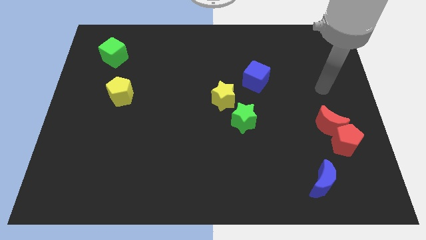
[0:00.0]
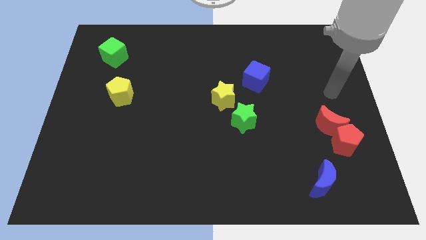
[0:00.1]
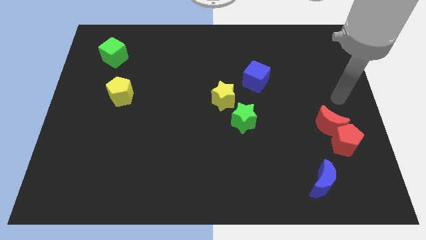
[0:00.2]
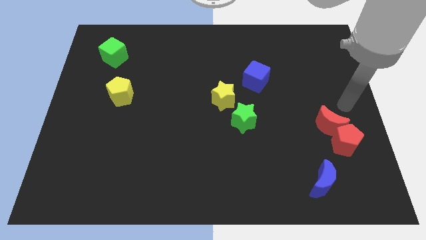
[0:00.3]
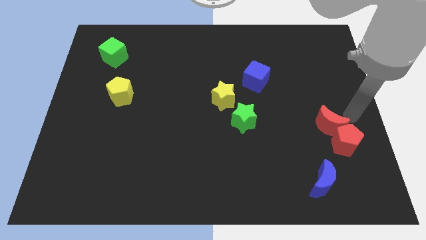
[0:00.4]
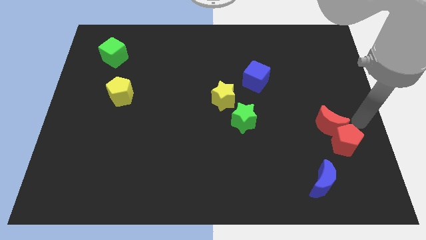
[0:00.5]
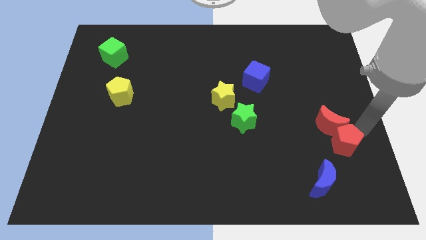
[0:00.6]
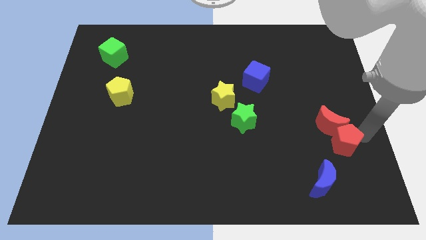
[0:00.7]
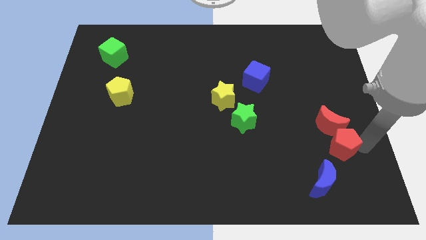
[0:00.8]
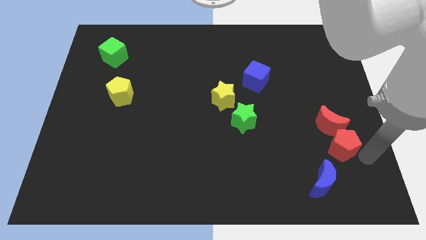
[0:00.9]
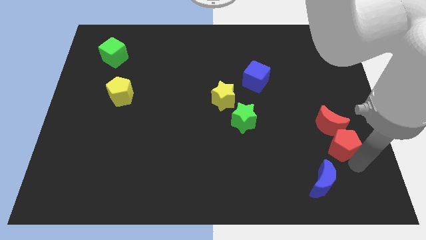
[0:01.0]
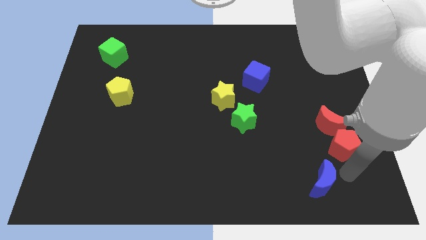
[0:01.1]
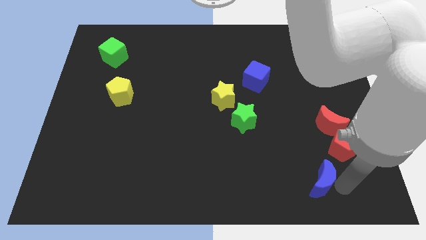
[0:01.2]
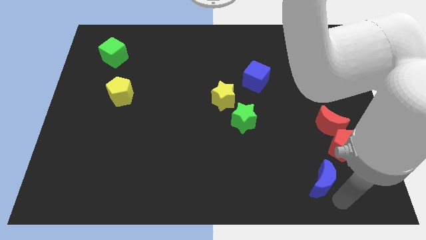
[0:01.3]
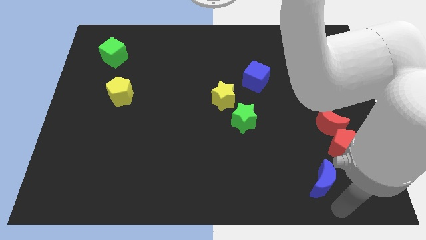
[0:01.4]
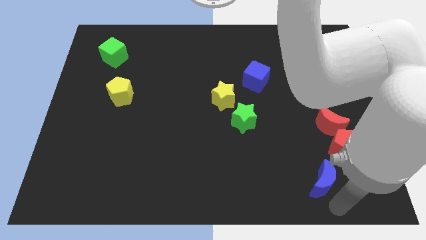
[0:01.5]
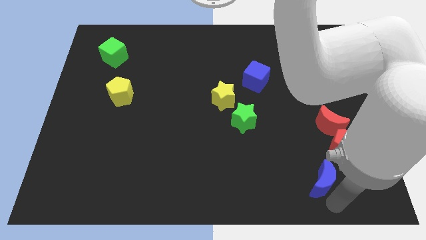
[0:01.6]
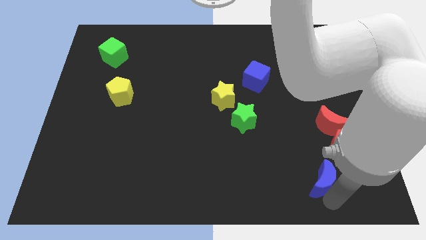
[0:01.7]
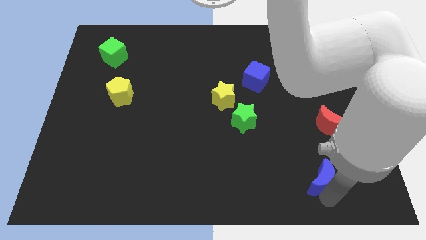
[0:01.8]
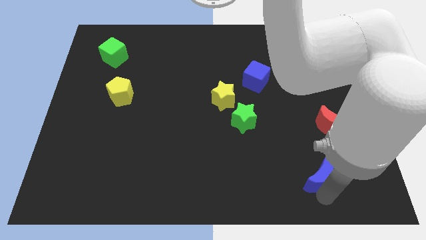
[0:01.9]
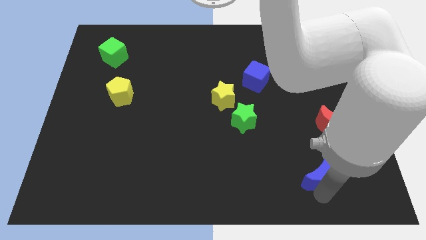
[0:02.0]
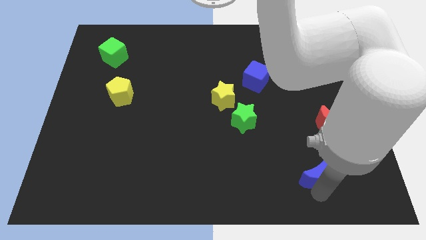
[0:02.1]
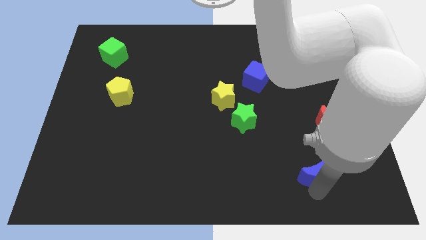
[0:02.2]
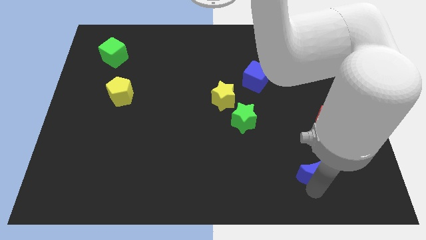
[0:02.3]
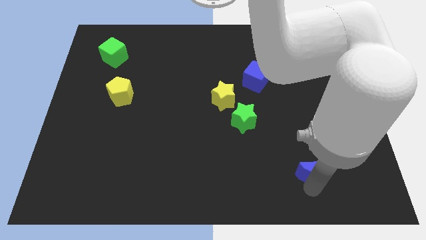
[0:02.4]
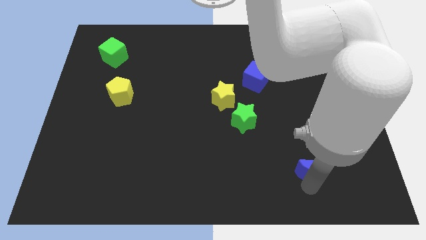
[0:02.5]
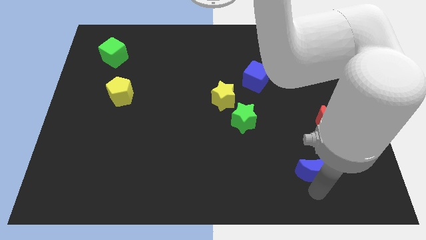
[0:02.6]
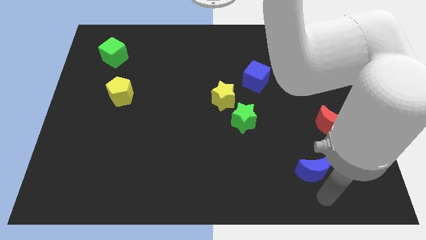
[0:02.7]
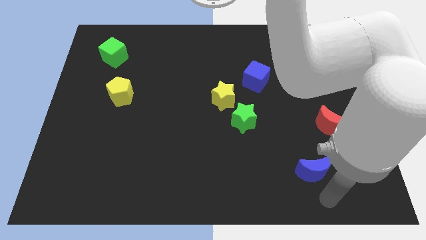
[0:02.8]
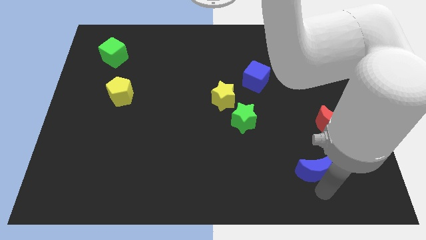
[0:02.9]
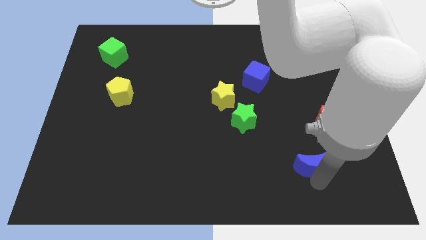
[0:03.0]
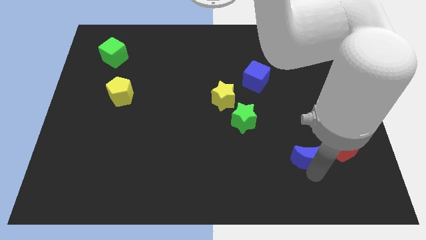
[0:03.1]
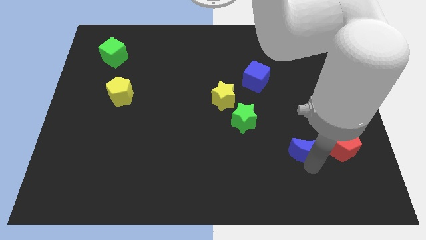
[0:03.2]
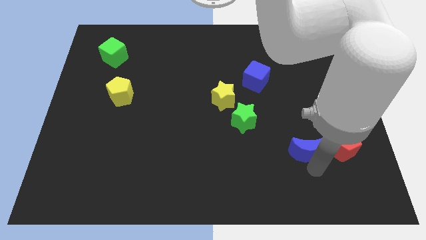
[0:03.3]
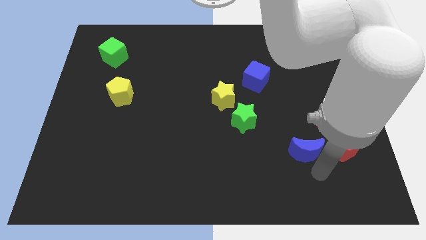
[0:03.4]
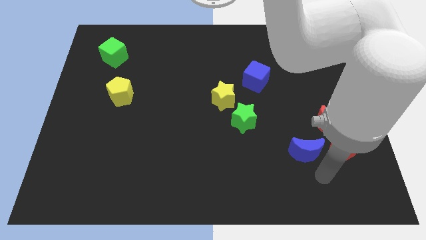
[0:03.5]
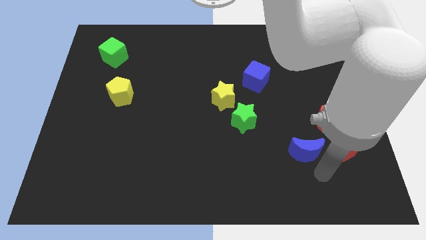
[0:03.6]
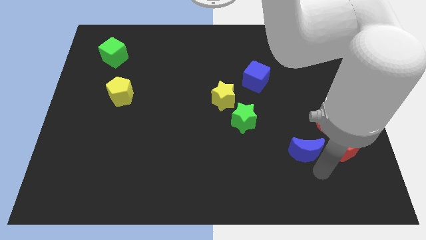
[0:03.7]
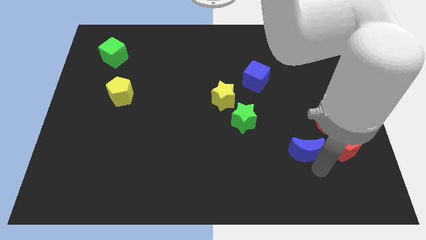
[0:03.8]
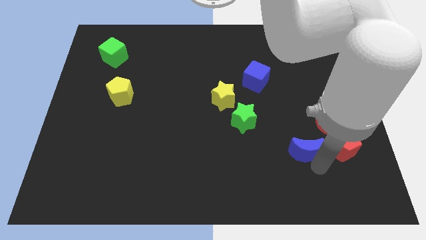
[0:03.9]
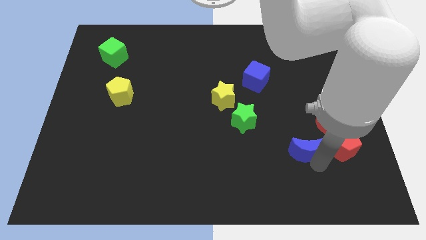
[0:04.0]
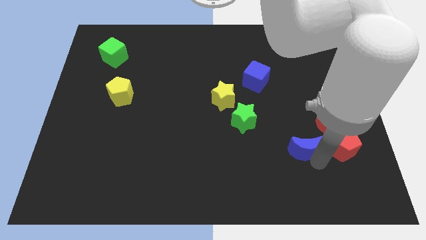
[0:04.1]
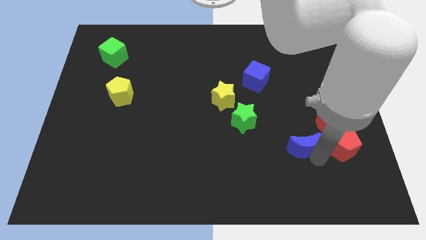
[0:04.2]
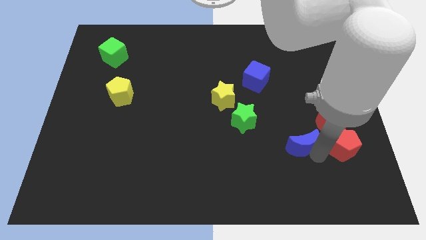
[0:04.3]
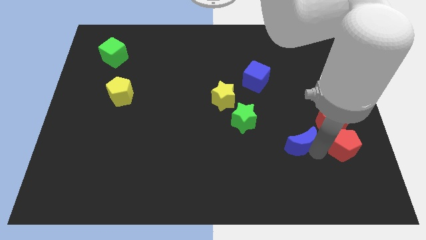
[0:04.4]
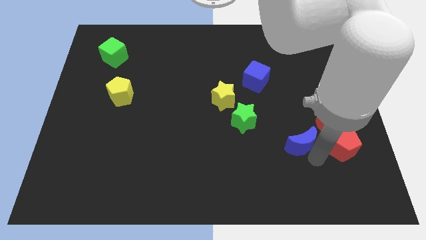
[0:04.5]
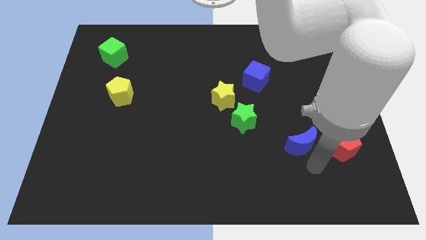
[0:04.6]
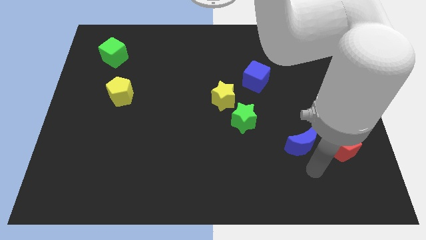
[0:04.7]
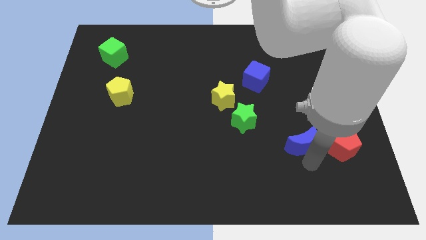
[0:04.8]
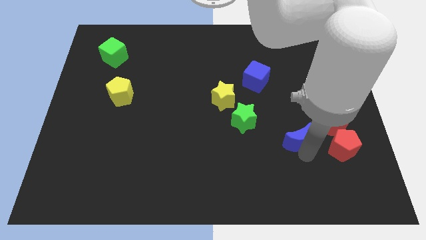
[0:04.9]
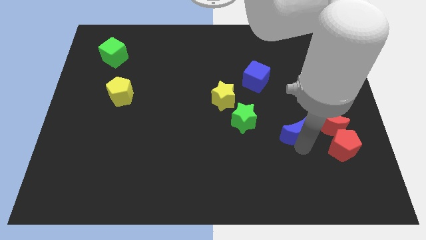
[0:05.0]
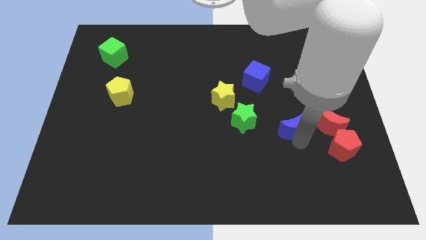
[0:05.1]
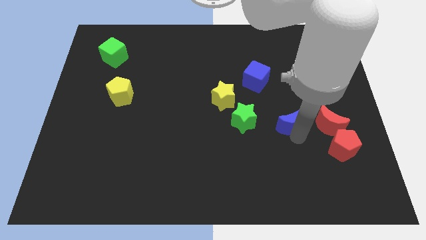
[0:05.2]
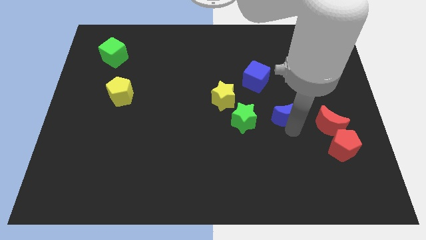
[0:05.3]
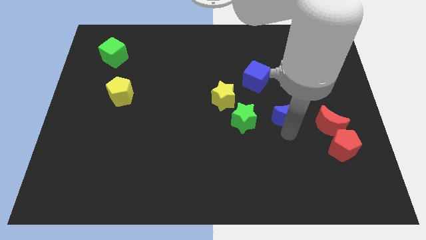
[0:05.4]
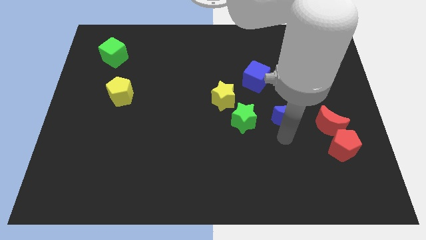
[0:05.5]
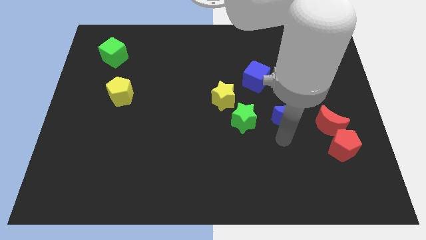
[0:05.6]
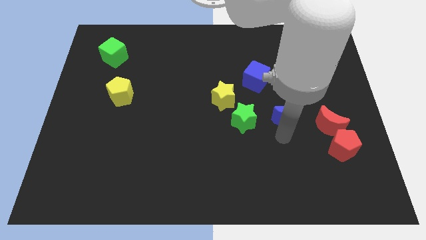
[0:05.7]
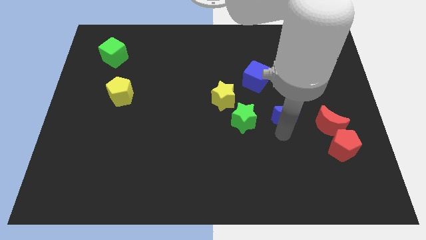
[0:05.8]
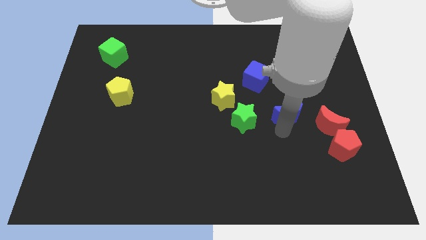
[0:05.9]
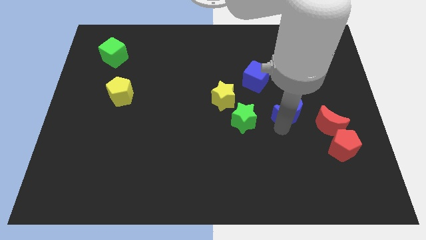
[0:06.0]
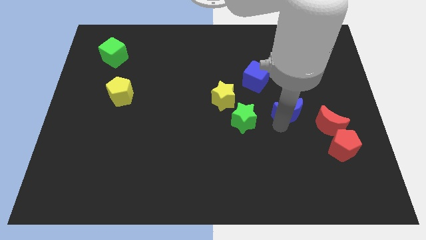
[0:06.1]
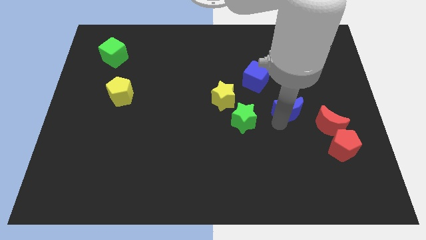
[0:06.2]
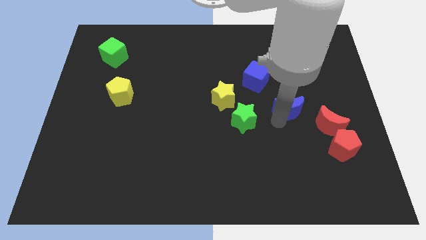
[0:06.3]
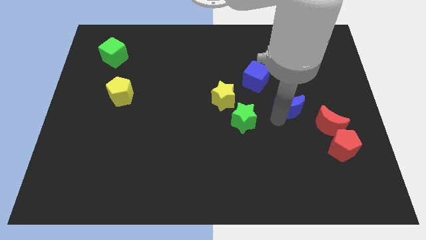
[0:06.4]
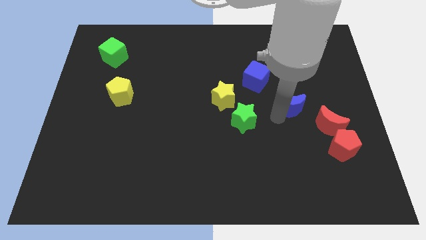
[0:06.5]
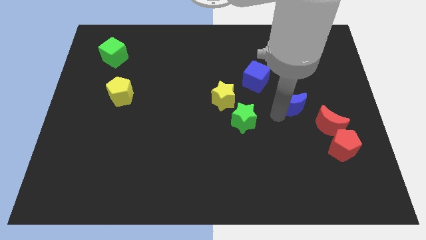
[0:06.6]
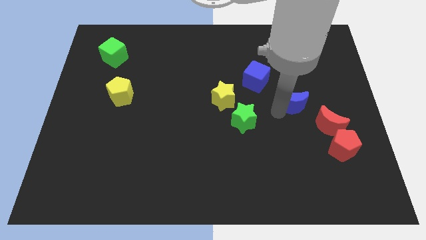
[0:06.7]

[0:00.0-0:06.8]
push the blue moon upwards

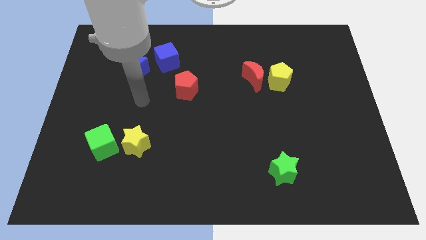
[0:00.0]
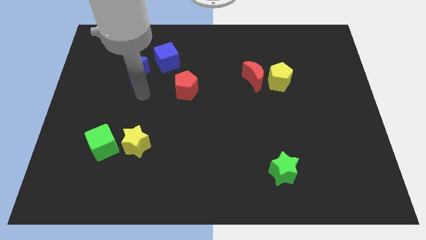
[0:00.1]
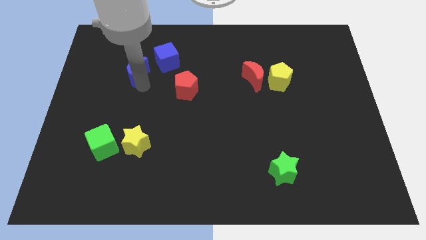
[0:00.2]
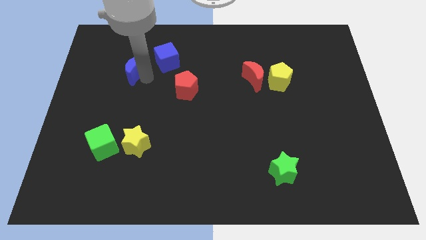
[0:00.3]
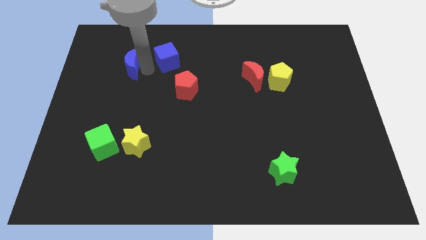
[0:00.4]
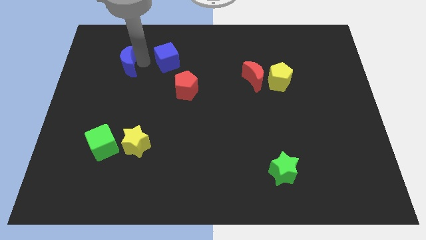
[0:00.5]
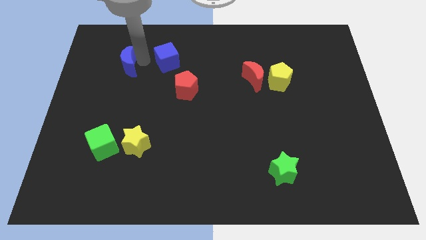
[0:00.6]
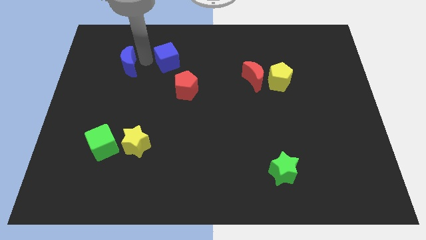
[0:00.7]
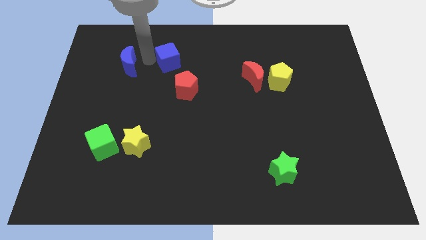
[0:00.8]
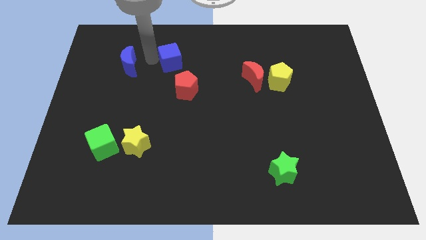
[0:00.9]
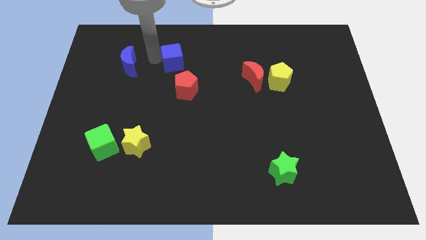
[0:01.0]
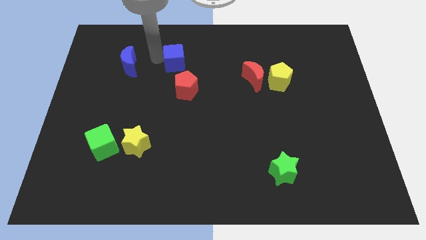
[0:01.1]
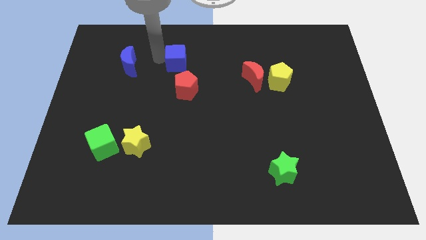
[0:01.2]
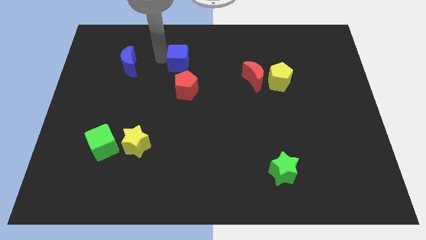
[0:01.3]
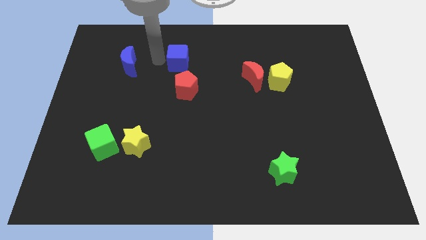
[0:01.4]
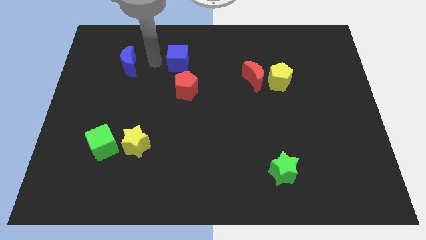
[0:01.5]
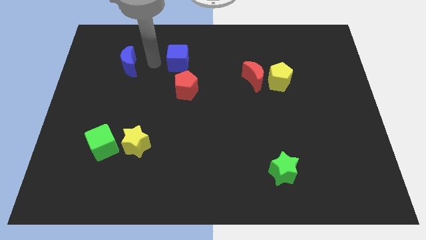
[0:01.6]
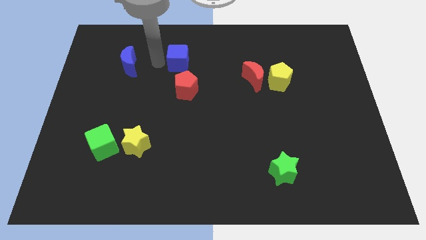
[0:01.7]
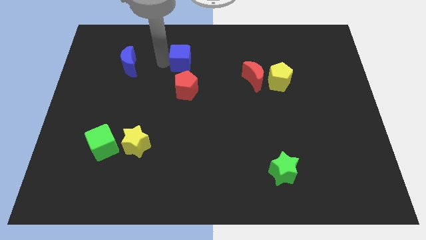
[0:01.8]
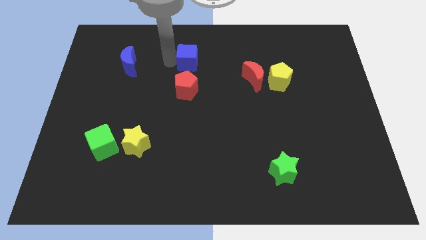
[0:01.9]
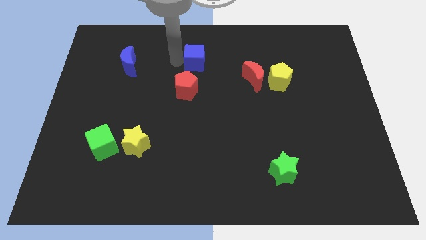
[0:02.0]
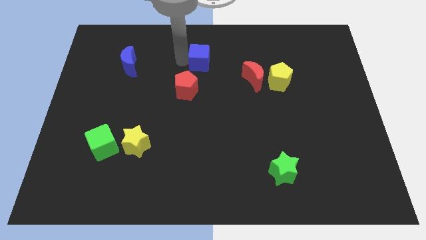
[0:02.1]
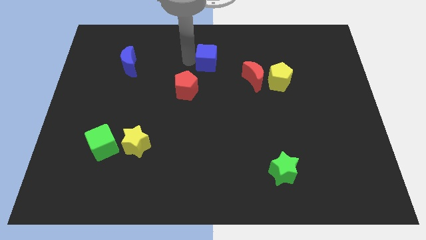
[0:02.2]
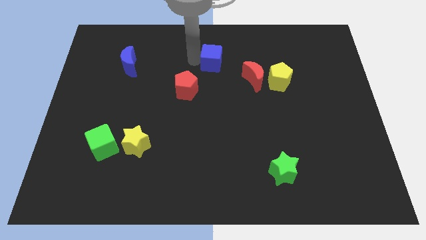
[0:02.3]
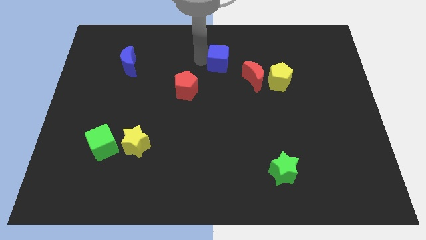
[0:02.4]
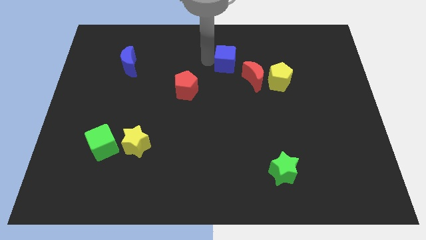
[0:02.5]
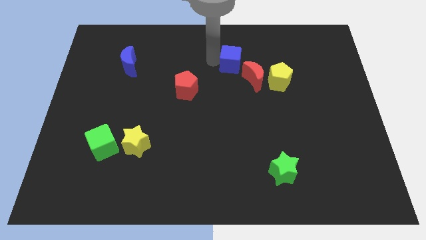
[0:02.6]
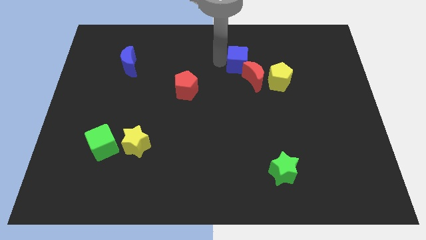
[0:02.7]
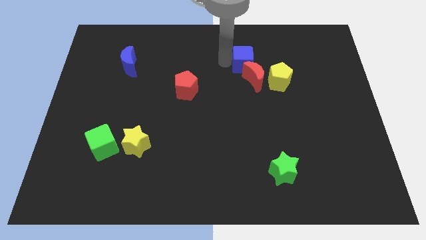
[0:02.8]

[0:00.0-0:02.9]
push the blue cube right
